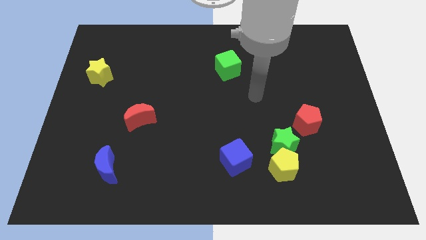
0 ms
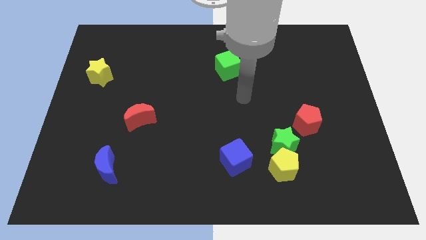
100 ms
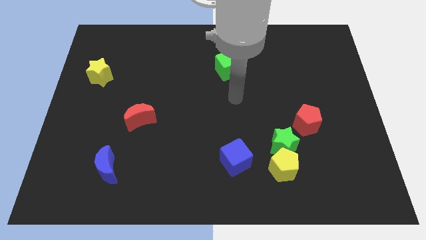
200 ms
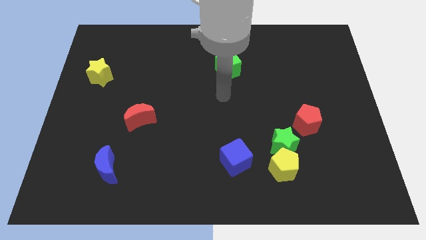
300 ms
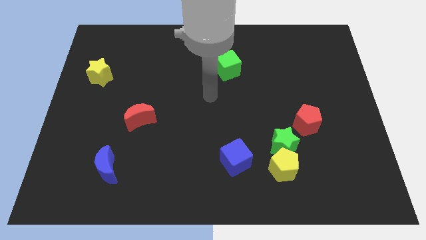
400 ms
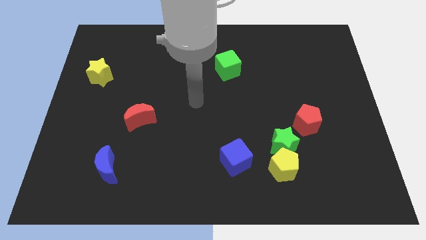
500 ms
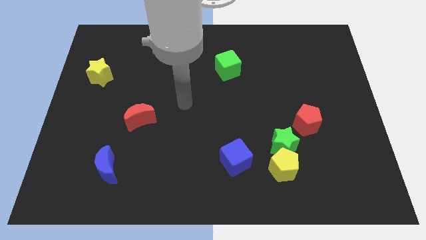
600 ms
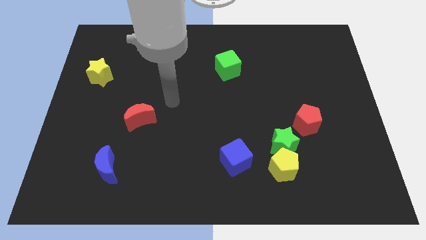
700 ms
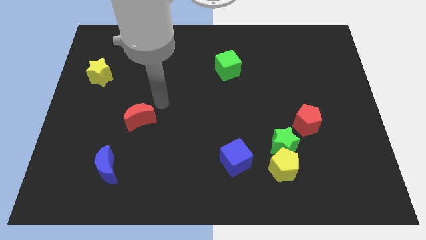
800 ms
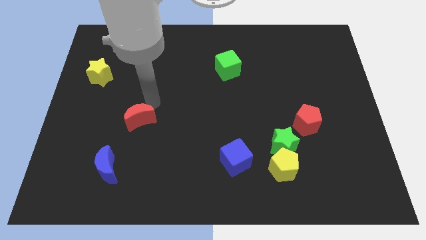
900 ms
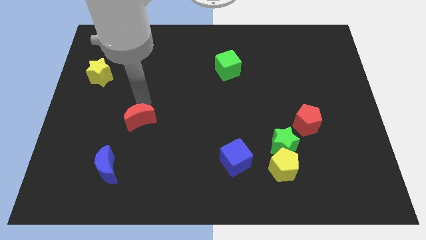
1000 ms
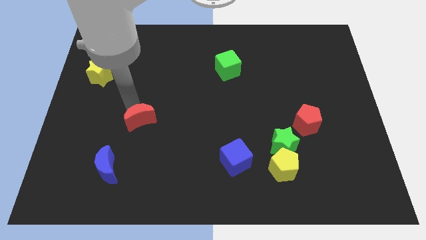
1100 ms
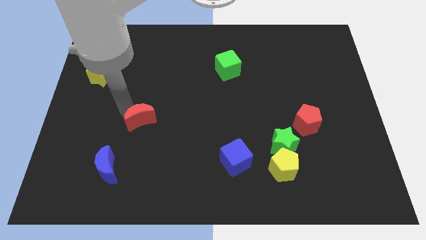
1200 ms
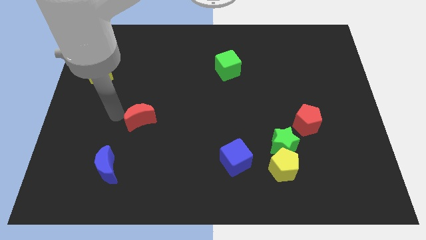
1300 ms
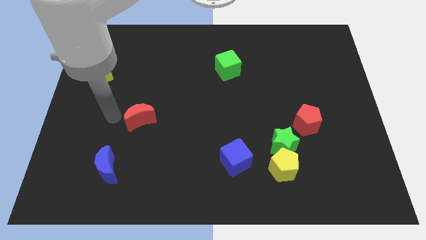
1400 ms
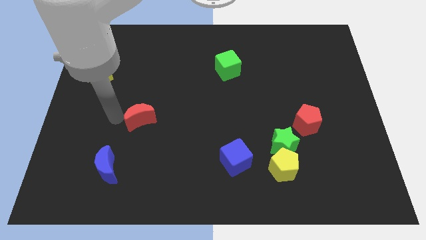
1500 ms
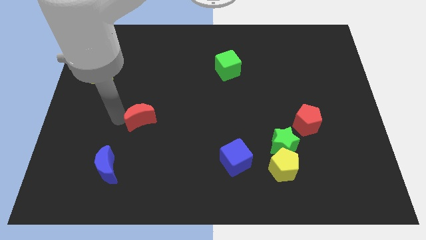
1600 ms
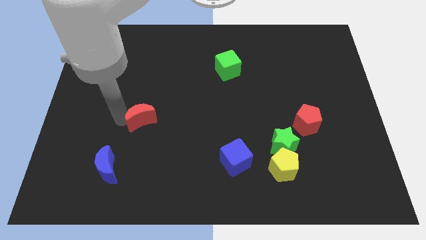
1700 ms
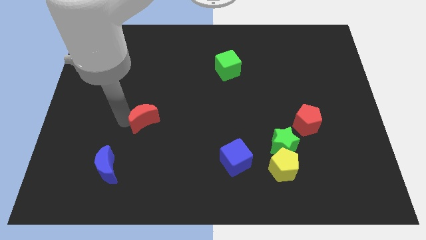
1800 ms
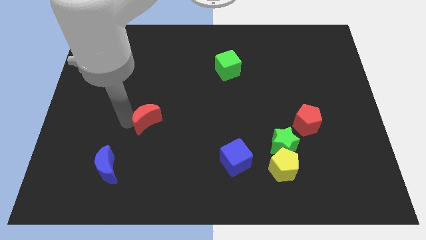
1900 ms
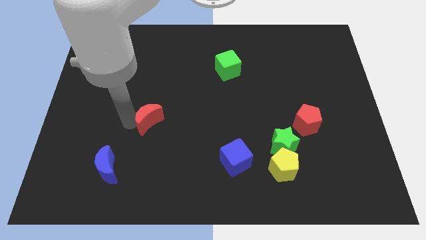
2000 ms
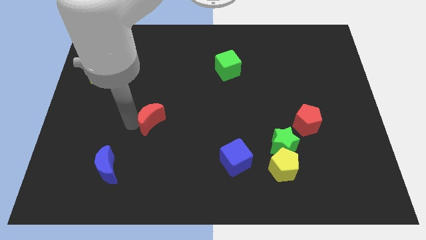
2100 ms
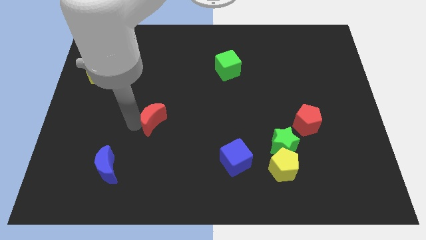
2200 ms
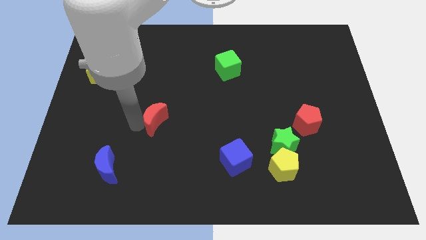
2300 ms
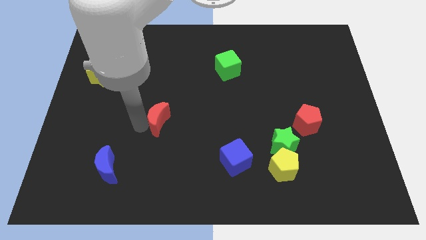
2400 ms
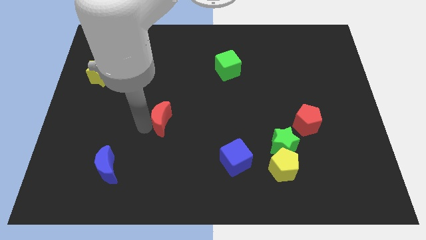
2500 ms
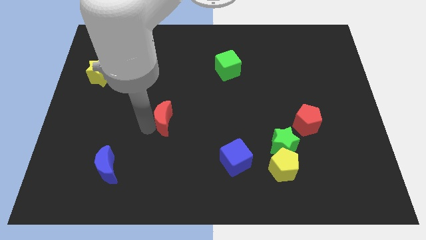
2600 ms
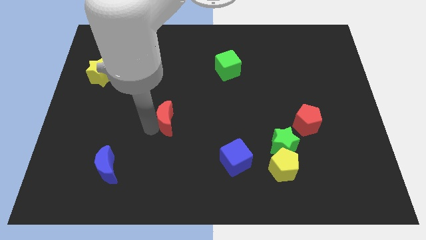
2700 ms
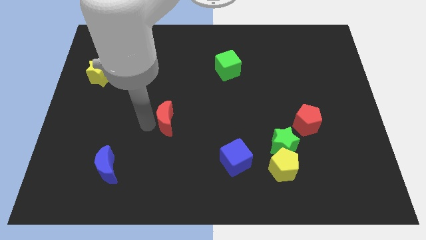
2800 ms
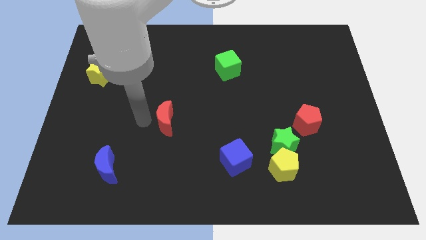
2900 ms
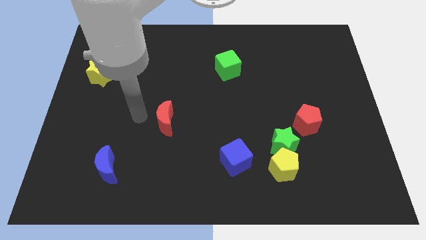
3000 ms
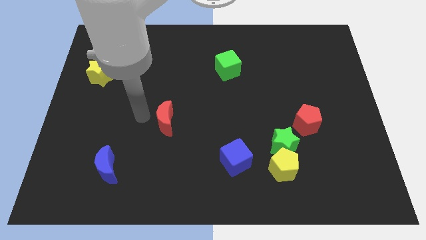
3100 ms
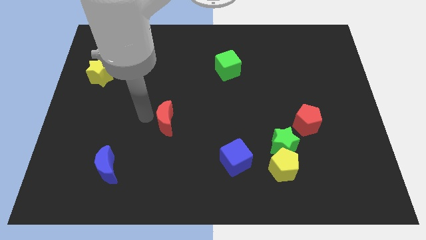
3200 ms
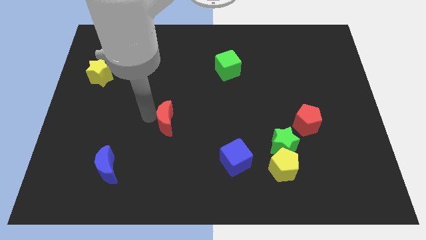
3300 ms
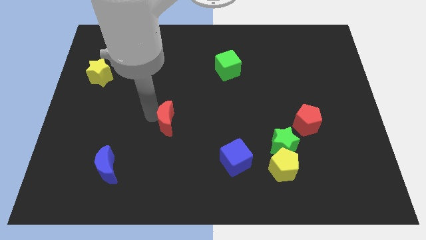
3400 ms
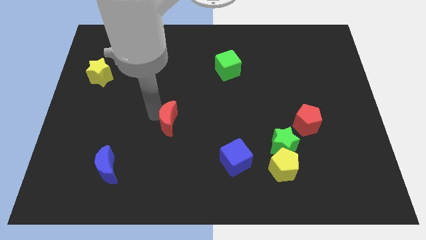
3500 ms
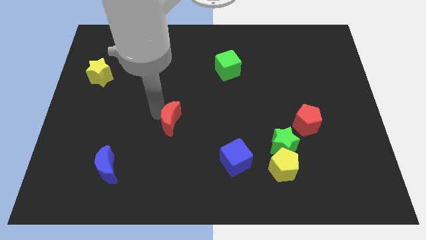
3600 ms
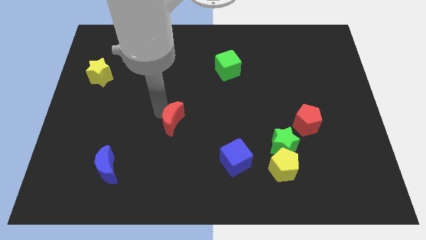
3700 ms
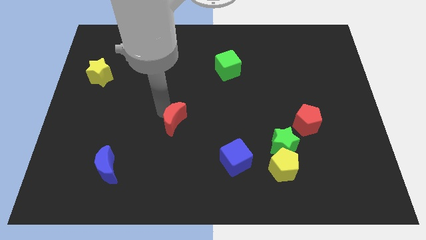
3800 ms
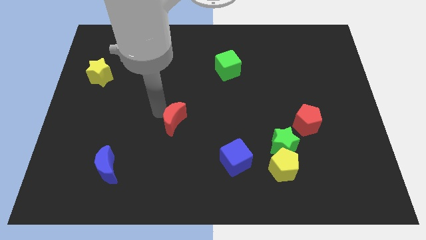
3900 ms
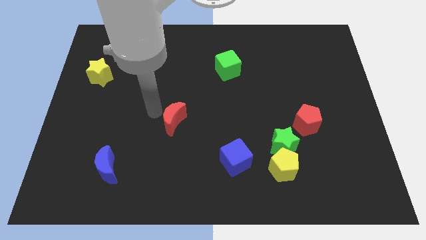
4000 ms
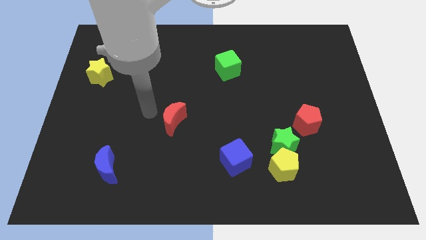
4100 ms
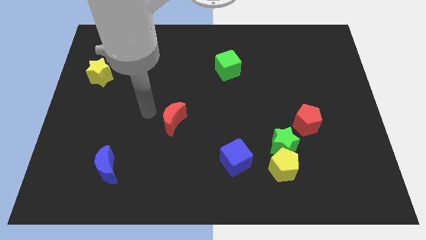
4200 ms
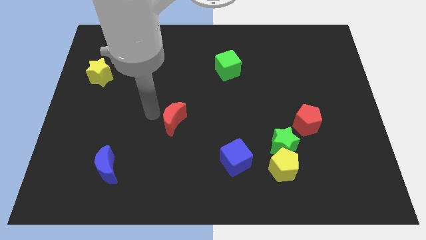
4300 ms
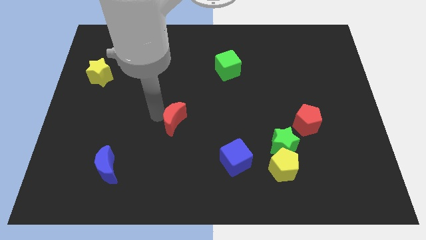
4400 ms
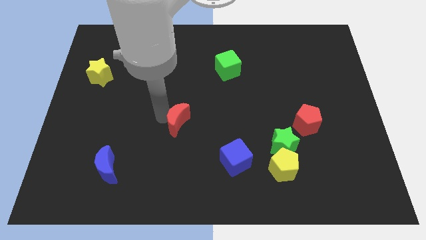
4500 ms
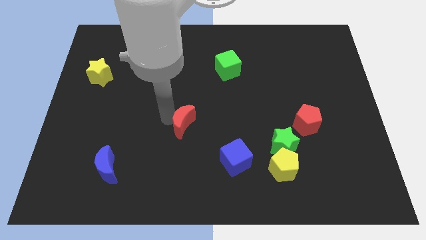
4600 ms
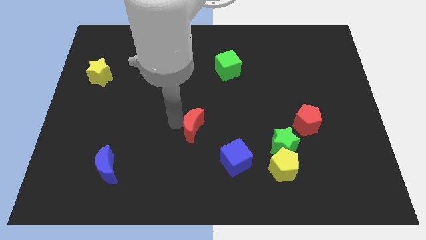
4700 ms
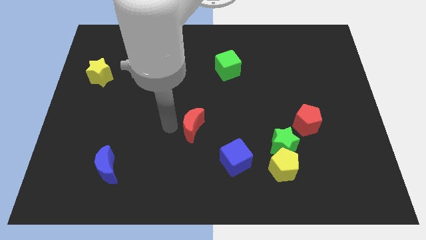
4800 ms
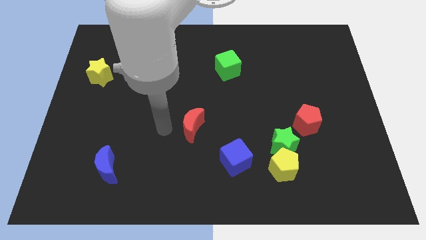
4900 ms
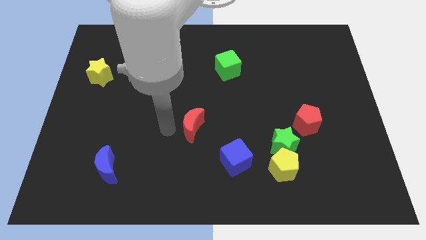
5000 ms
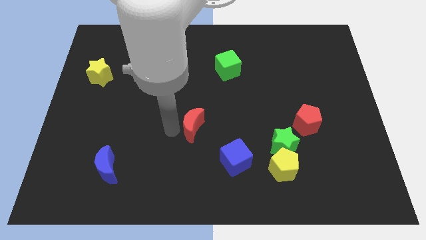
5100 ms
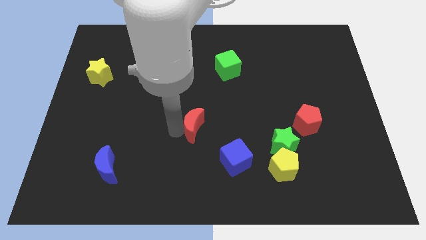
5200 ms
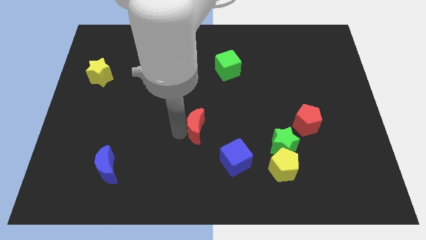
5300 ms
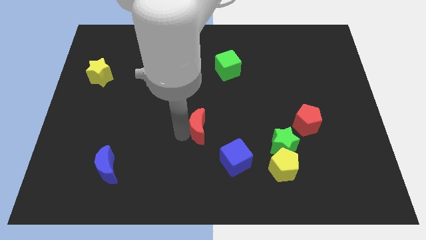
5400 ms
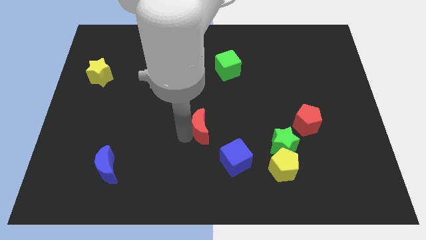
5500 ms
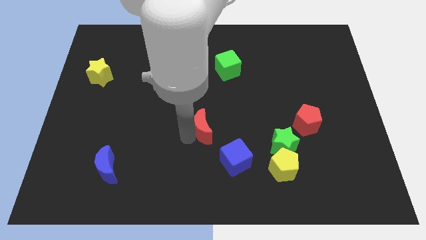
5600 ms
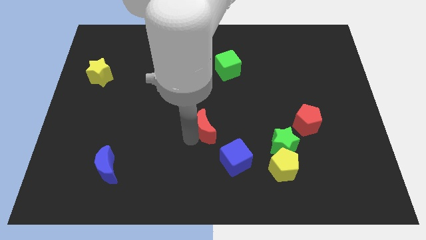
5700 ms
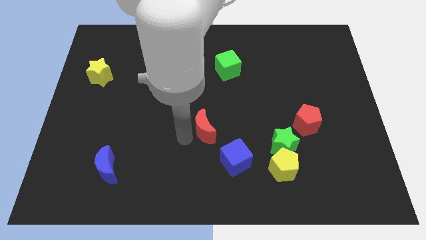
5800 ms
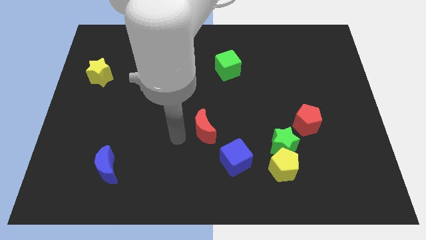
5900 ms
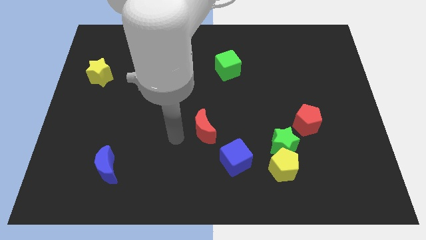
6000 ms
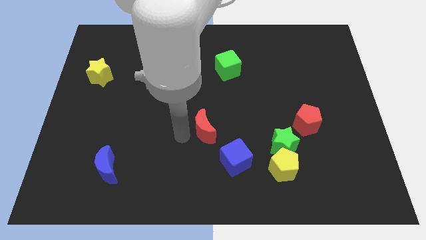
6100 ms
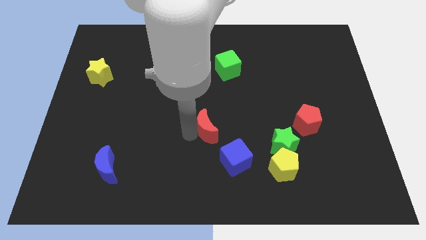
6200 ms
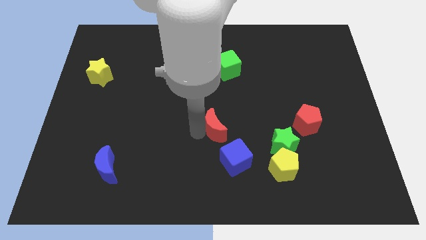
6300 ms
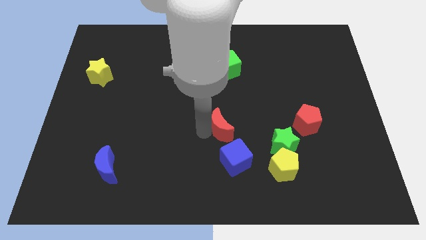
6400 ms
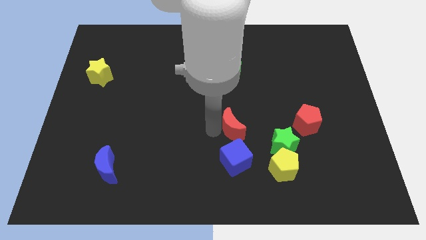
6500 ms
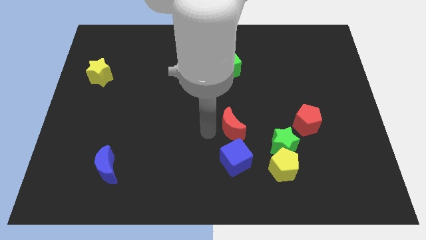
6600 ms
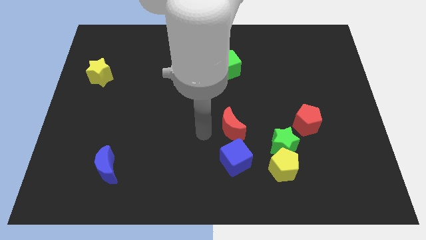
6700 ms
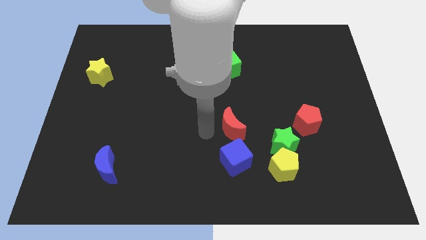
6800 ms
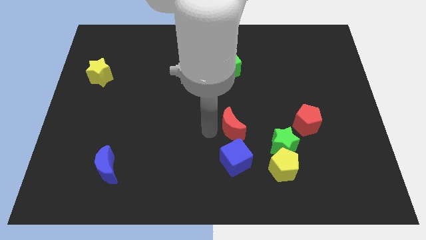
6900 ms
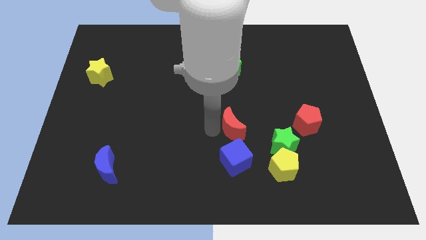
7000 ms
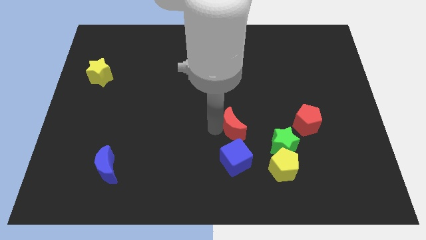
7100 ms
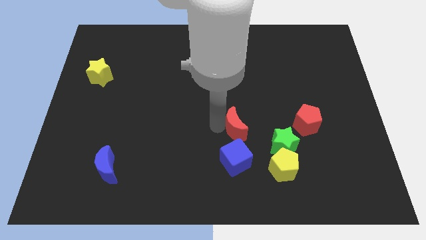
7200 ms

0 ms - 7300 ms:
move the red moon to the left of the red pentagon
